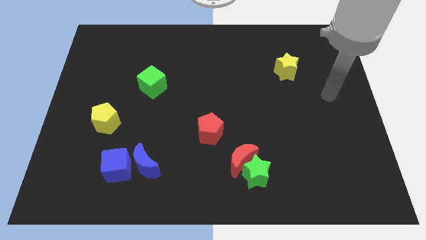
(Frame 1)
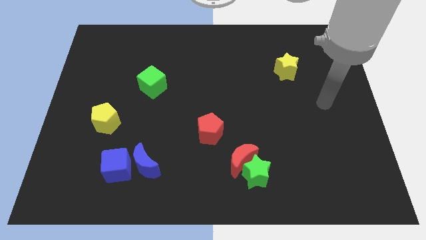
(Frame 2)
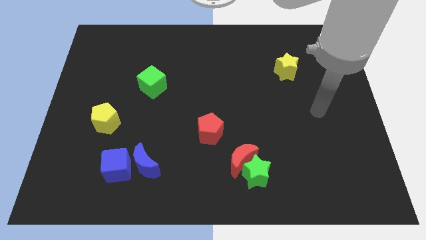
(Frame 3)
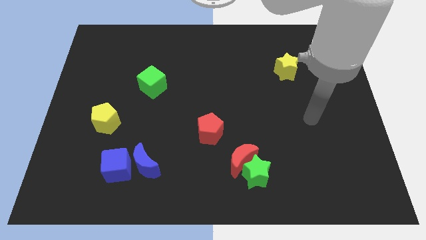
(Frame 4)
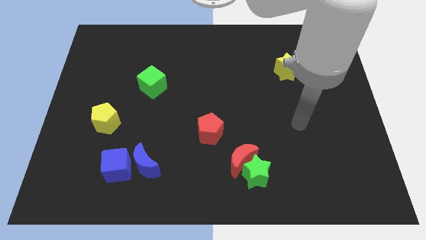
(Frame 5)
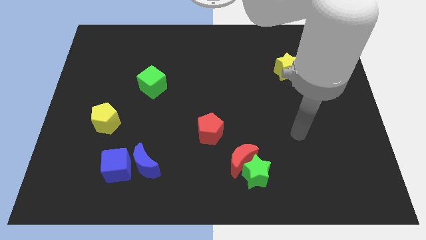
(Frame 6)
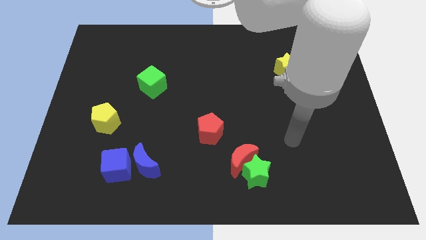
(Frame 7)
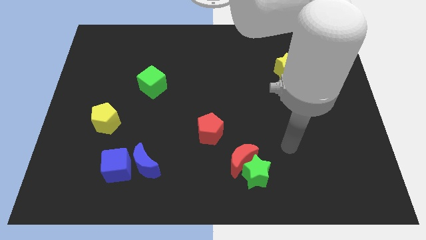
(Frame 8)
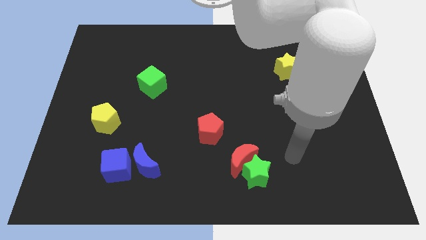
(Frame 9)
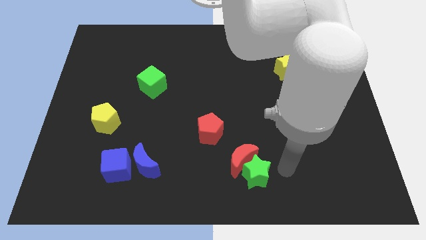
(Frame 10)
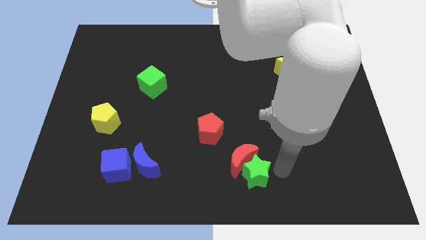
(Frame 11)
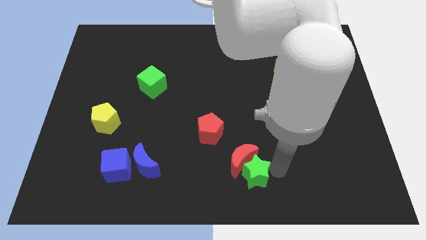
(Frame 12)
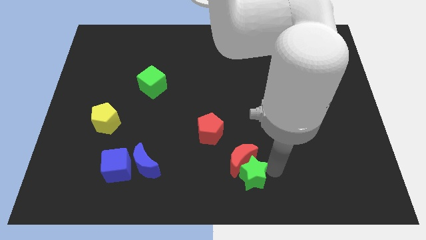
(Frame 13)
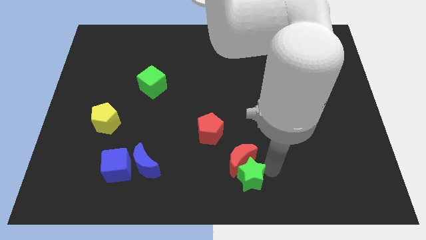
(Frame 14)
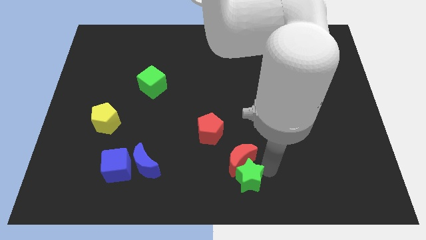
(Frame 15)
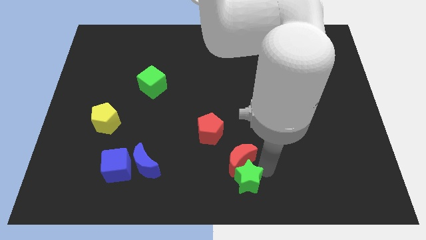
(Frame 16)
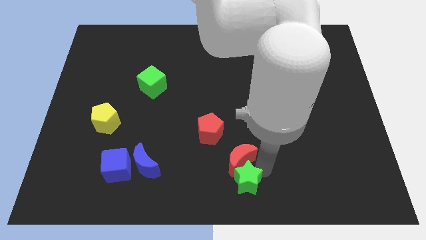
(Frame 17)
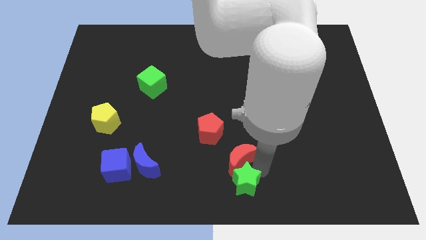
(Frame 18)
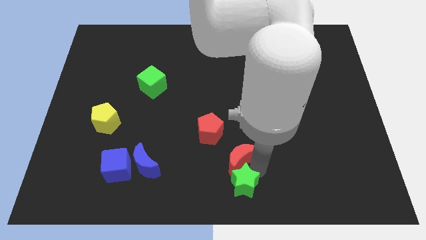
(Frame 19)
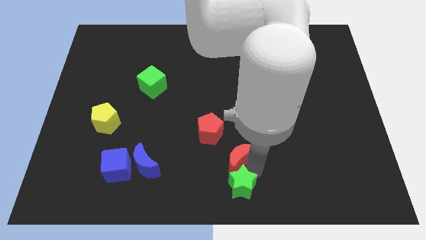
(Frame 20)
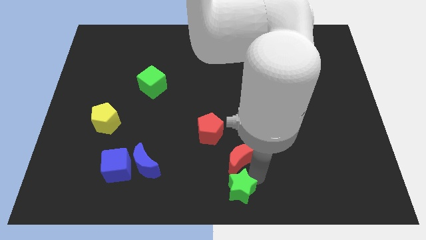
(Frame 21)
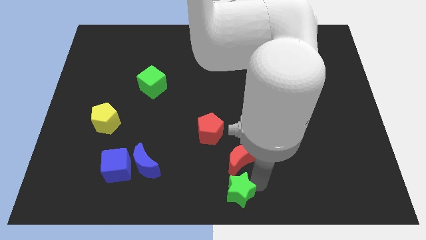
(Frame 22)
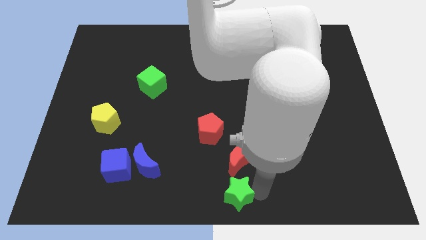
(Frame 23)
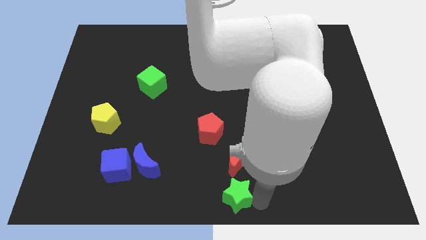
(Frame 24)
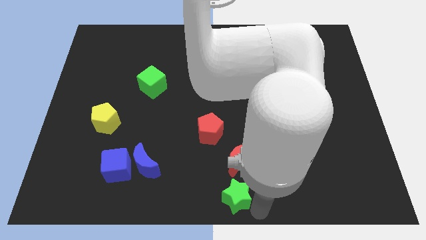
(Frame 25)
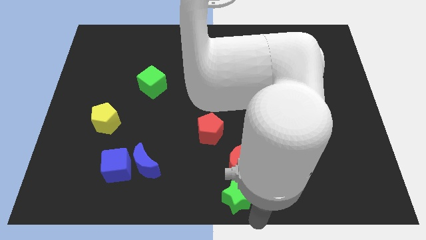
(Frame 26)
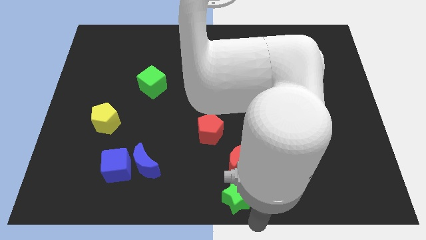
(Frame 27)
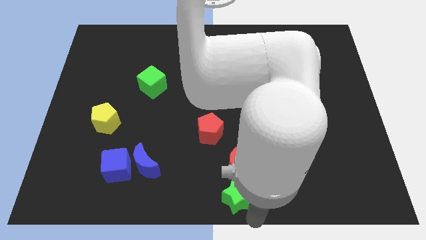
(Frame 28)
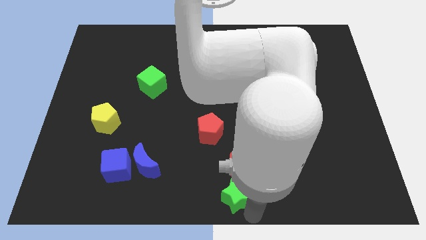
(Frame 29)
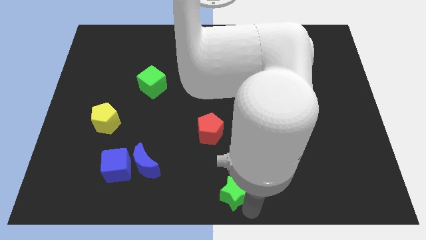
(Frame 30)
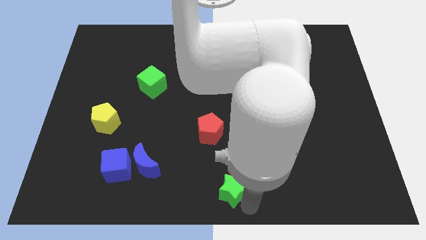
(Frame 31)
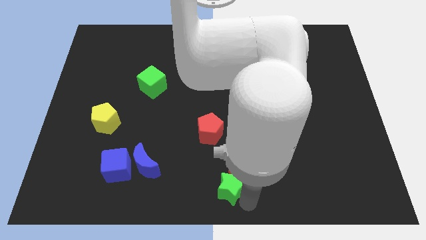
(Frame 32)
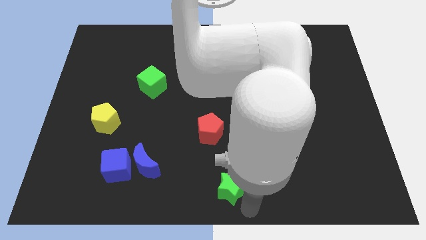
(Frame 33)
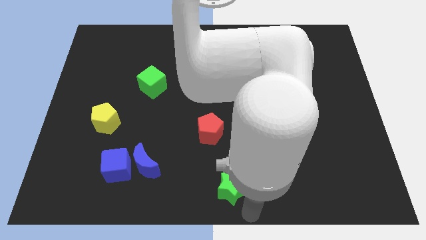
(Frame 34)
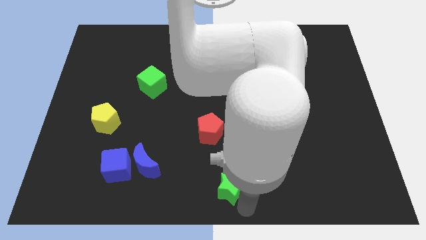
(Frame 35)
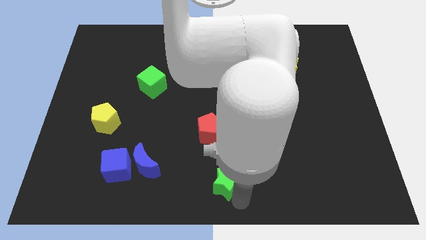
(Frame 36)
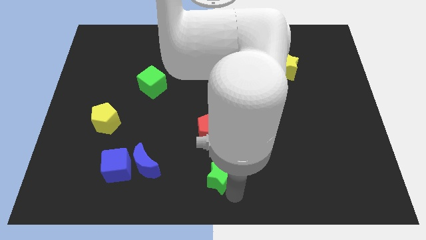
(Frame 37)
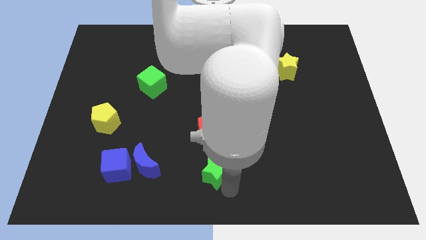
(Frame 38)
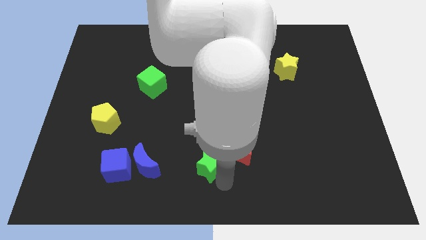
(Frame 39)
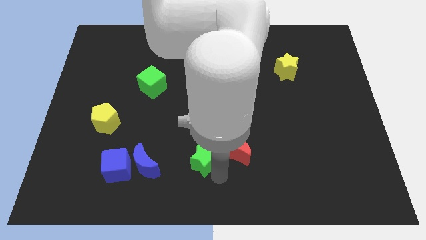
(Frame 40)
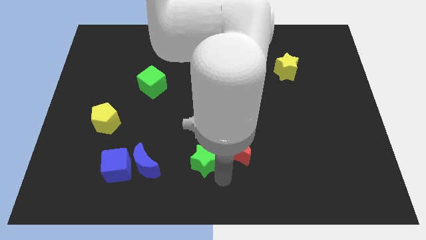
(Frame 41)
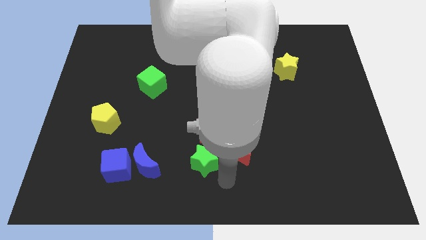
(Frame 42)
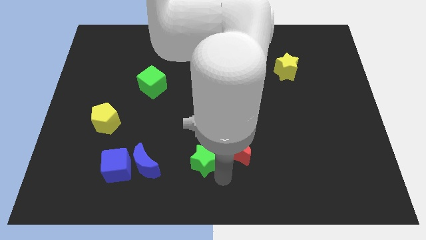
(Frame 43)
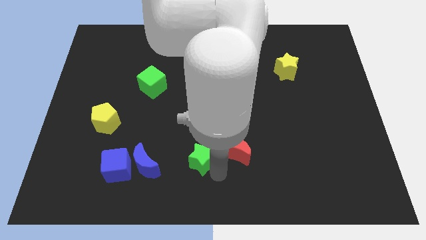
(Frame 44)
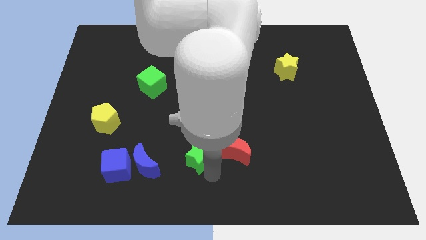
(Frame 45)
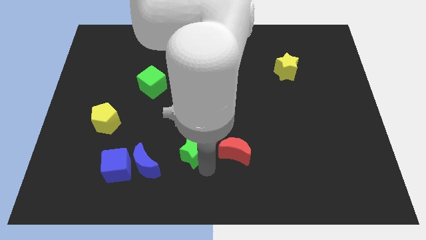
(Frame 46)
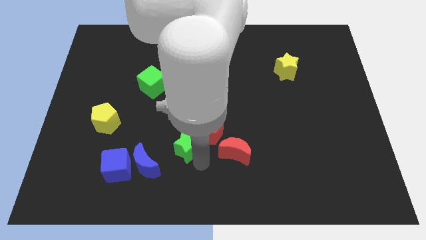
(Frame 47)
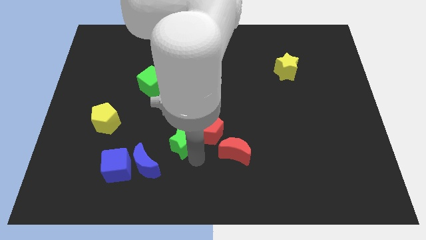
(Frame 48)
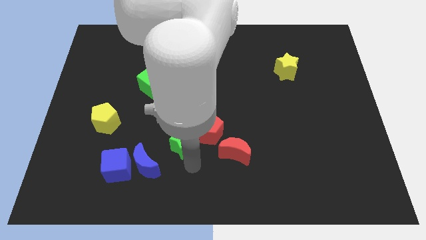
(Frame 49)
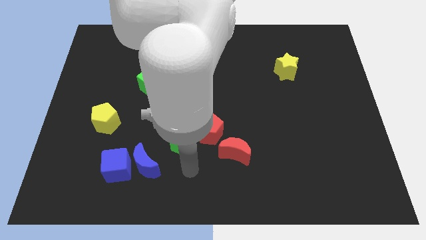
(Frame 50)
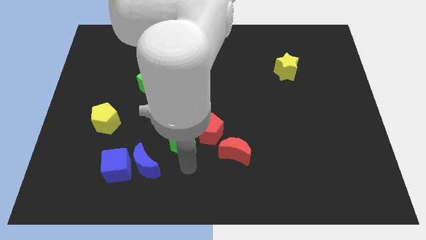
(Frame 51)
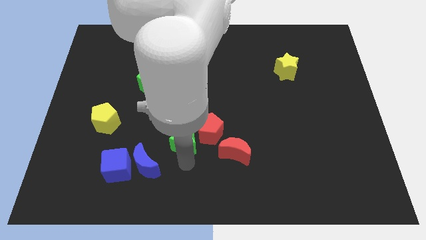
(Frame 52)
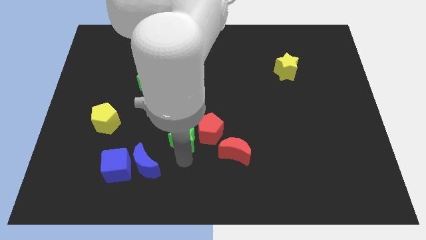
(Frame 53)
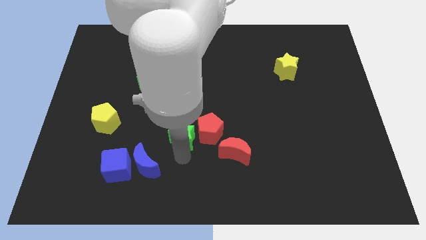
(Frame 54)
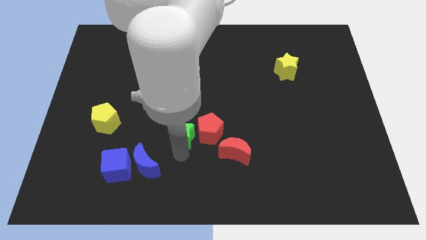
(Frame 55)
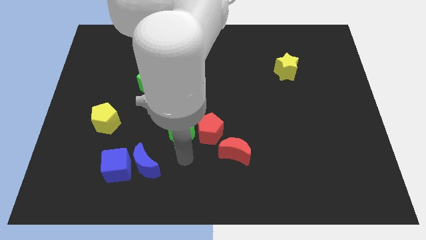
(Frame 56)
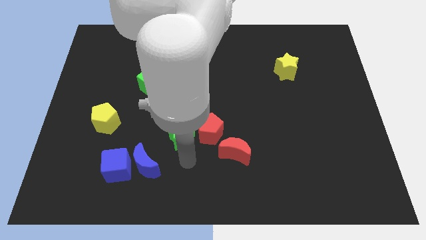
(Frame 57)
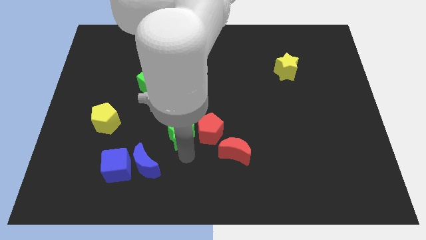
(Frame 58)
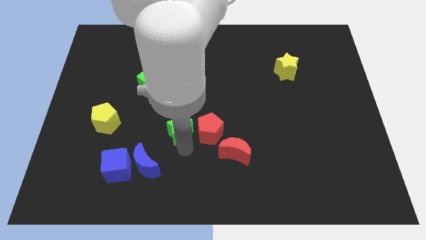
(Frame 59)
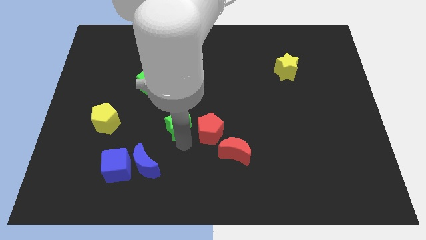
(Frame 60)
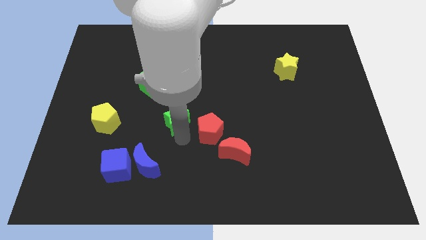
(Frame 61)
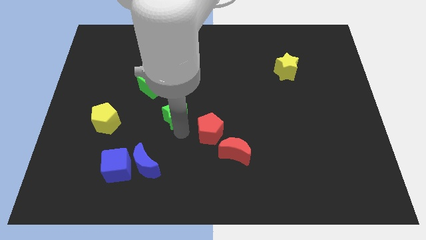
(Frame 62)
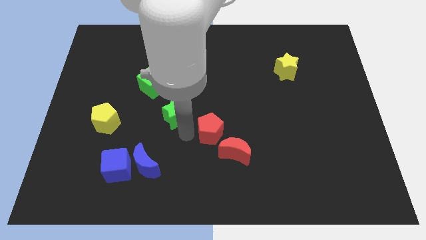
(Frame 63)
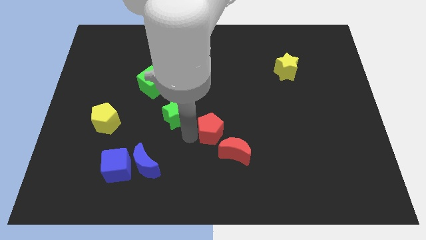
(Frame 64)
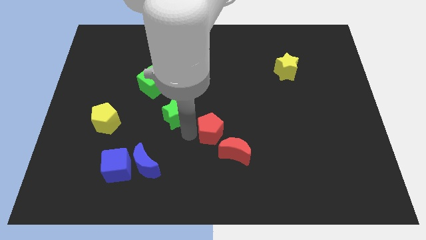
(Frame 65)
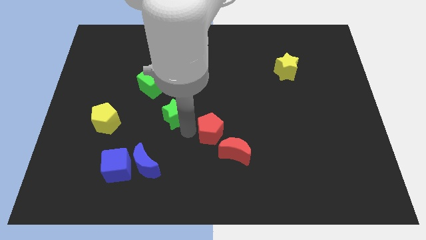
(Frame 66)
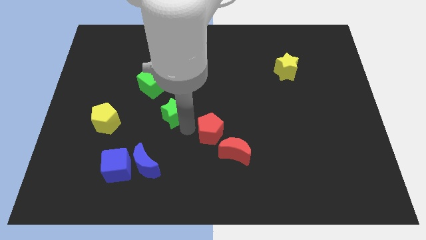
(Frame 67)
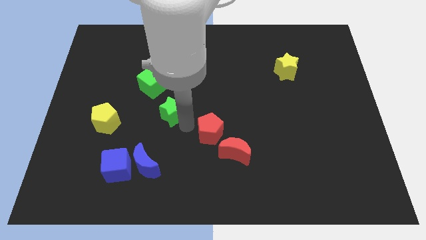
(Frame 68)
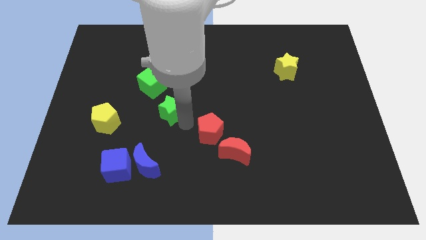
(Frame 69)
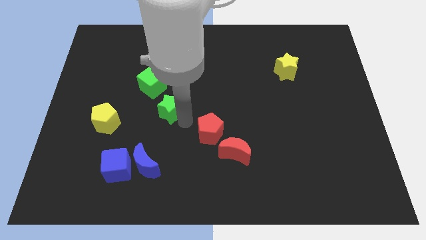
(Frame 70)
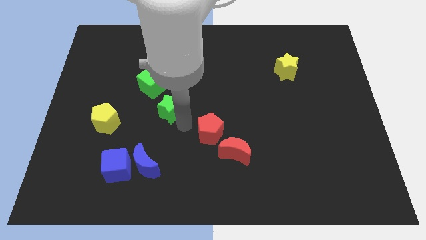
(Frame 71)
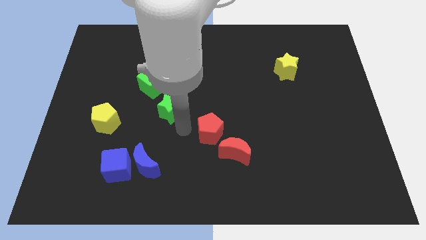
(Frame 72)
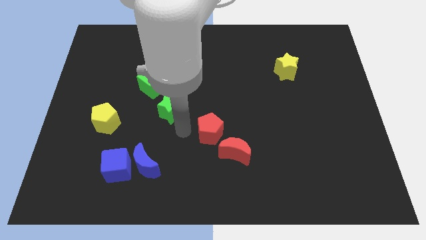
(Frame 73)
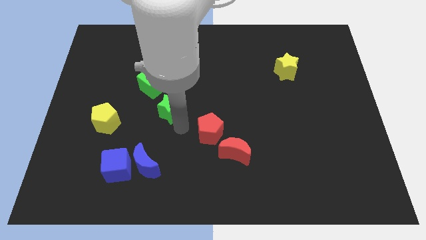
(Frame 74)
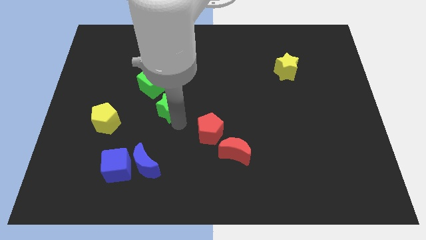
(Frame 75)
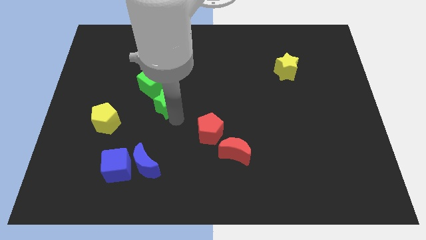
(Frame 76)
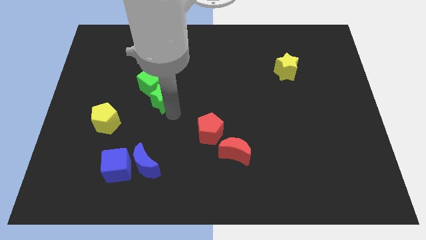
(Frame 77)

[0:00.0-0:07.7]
move the green star next to the green cube
